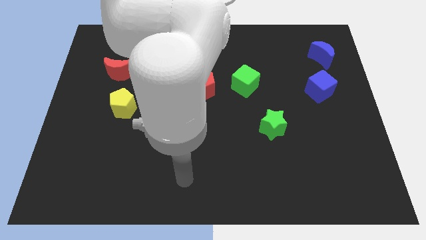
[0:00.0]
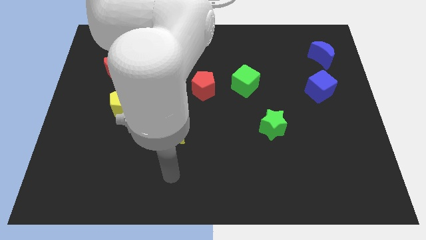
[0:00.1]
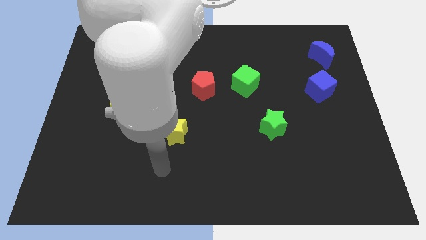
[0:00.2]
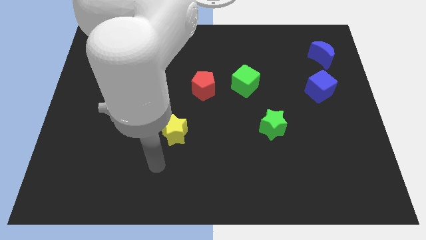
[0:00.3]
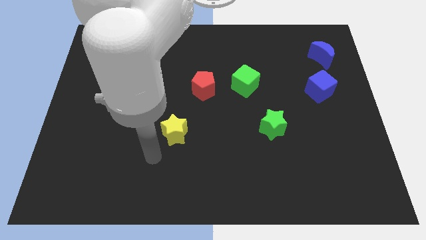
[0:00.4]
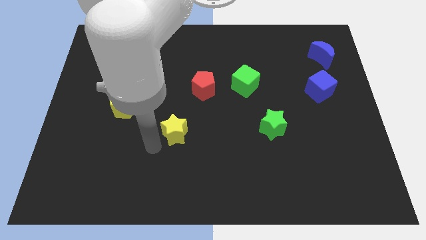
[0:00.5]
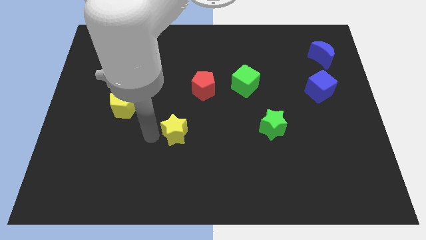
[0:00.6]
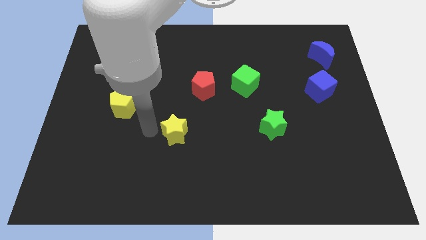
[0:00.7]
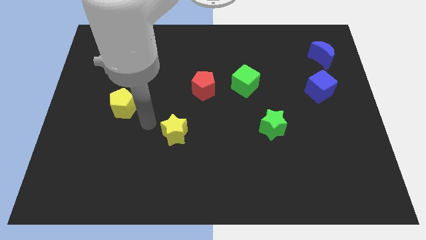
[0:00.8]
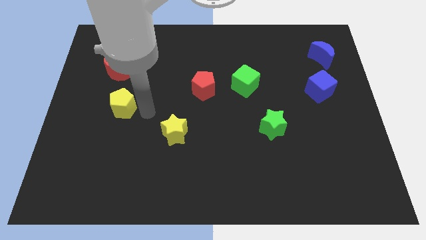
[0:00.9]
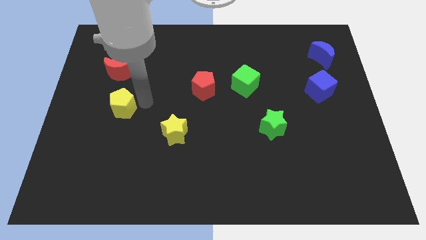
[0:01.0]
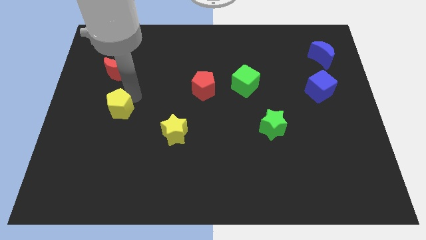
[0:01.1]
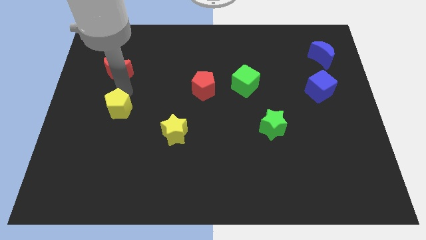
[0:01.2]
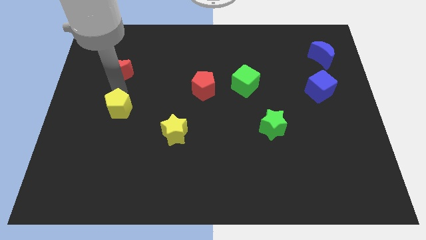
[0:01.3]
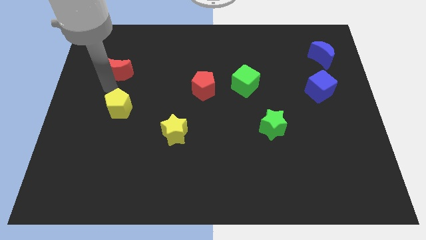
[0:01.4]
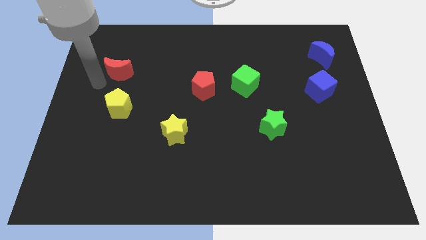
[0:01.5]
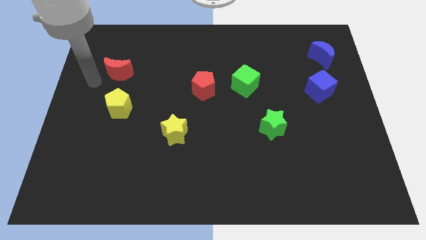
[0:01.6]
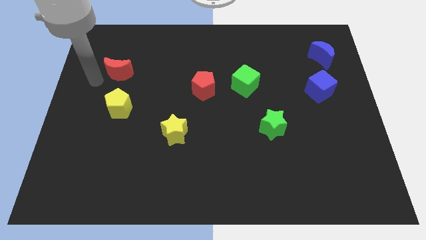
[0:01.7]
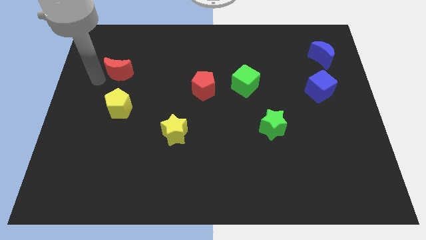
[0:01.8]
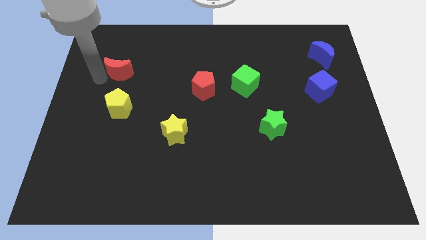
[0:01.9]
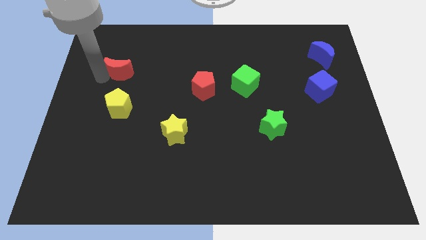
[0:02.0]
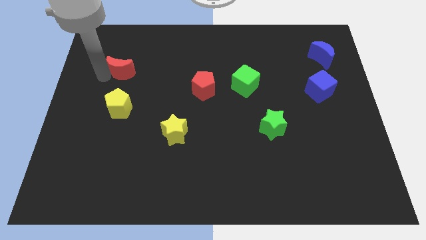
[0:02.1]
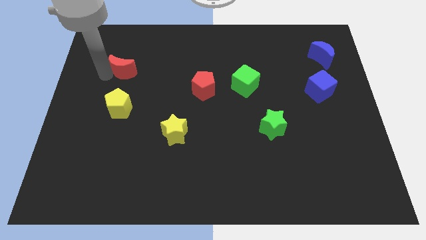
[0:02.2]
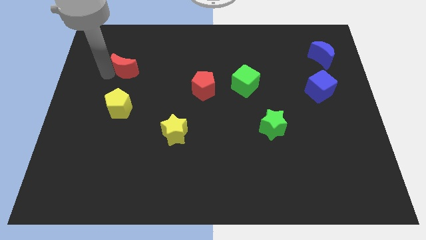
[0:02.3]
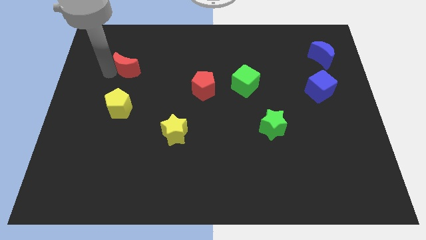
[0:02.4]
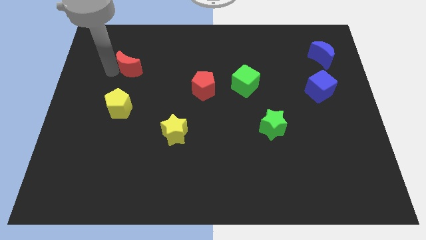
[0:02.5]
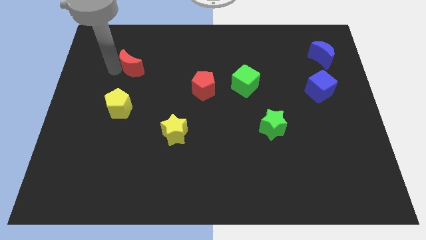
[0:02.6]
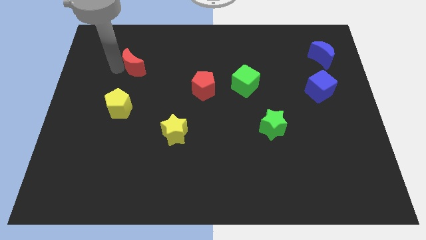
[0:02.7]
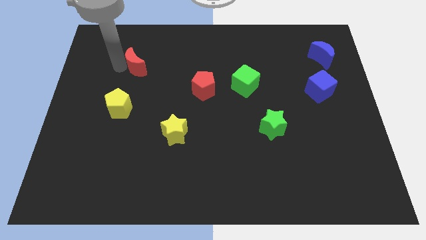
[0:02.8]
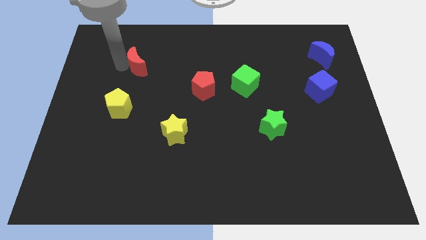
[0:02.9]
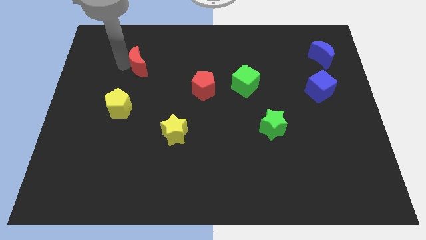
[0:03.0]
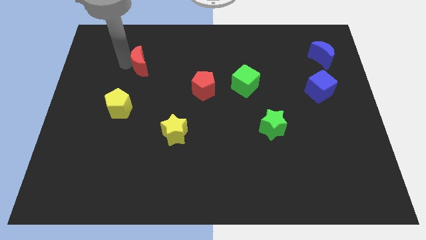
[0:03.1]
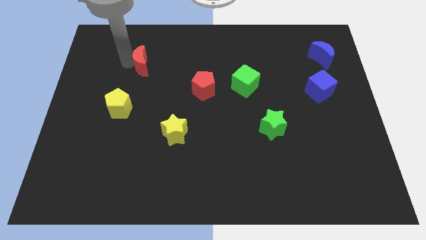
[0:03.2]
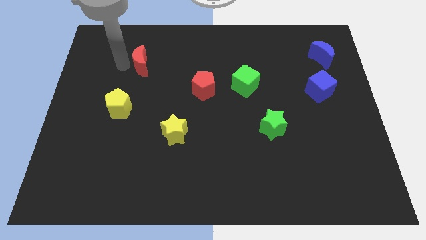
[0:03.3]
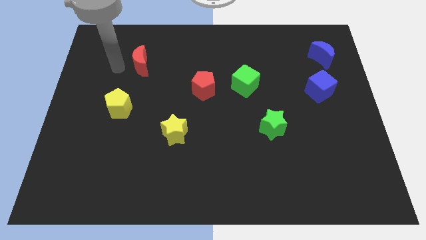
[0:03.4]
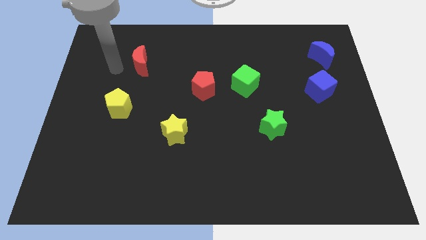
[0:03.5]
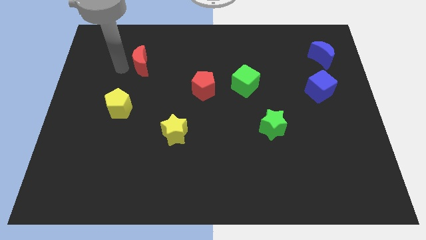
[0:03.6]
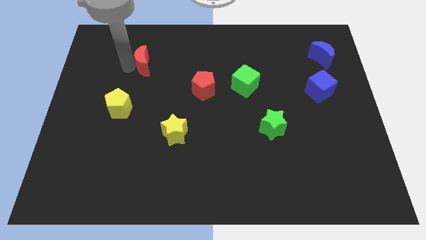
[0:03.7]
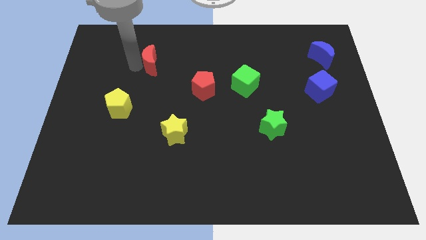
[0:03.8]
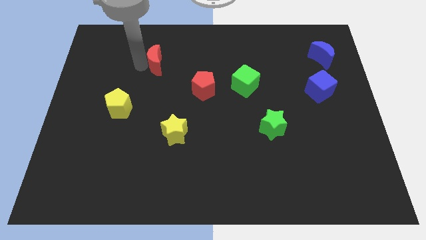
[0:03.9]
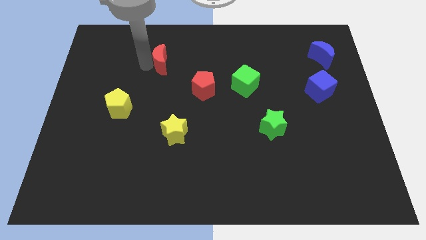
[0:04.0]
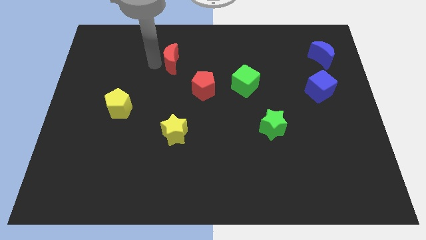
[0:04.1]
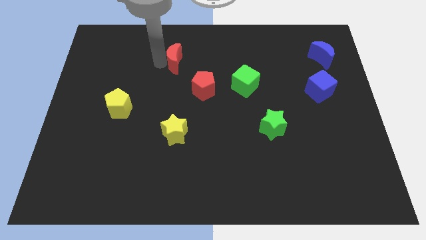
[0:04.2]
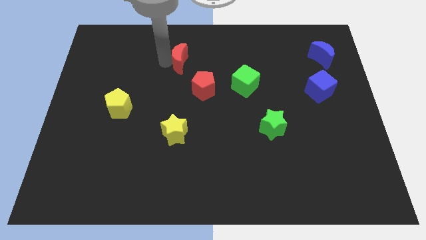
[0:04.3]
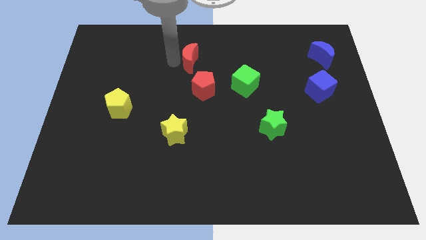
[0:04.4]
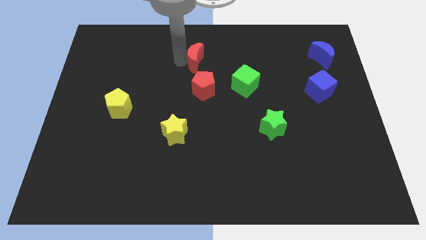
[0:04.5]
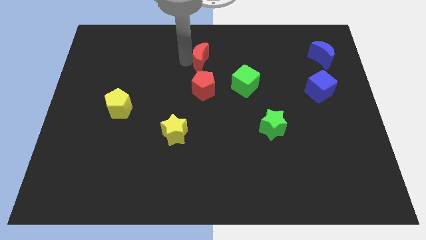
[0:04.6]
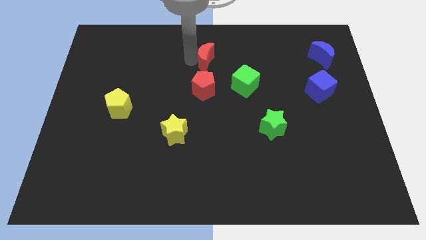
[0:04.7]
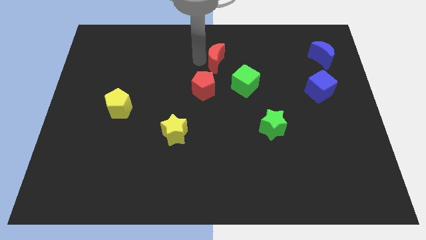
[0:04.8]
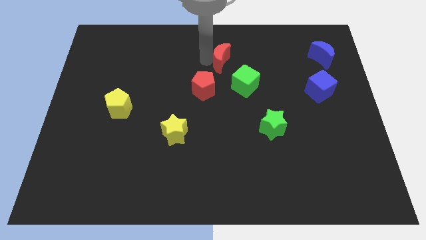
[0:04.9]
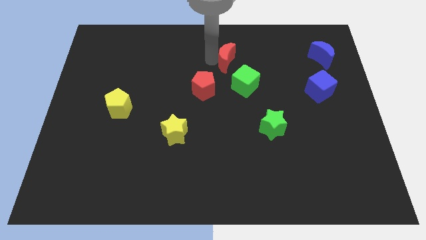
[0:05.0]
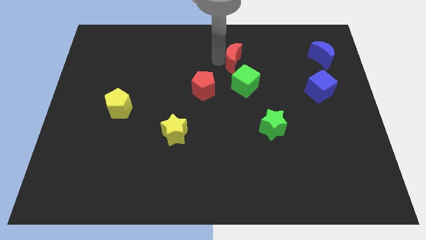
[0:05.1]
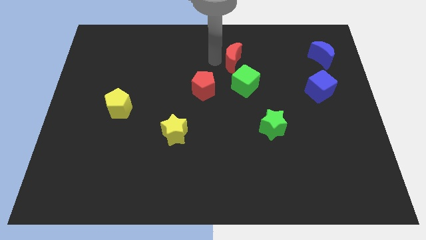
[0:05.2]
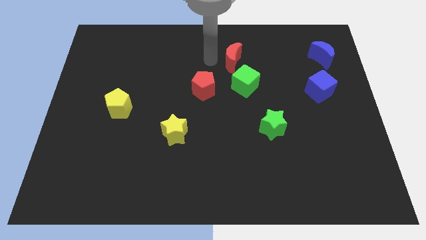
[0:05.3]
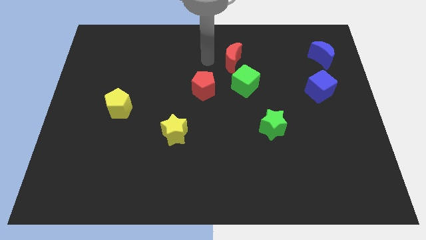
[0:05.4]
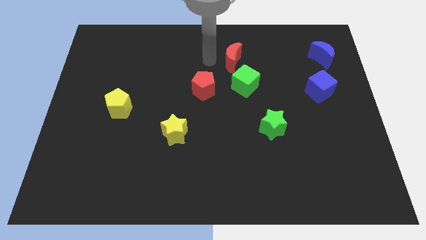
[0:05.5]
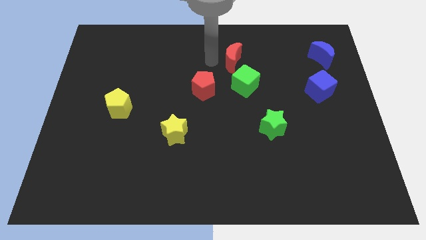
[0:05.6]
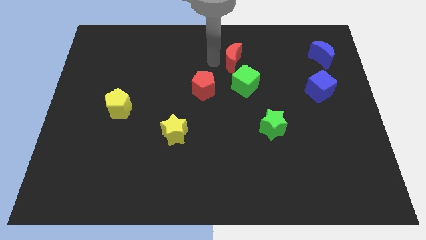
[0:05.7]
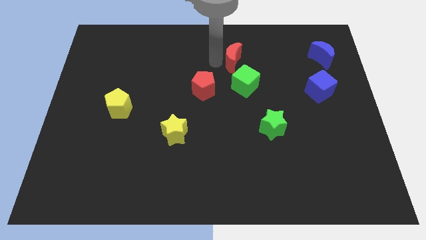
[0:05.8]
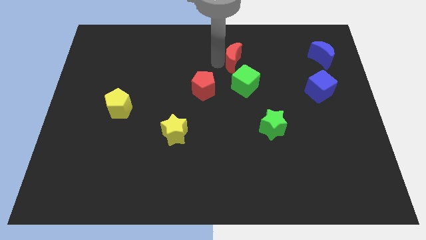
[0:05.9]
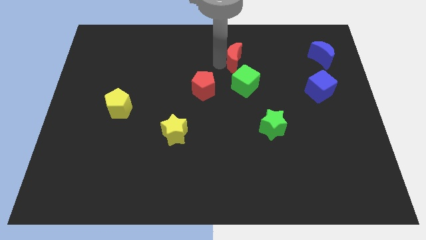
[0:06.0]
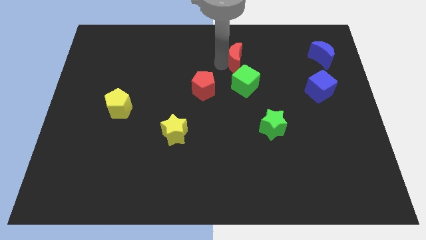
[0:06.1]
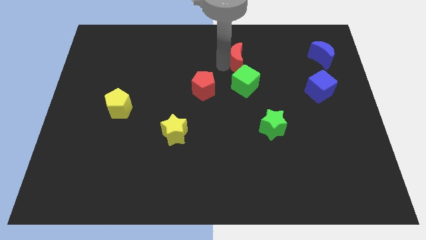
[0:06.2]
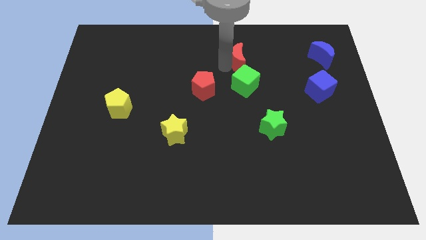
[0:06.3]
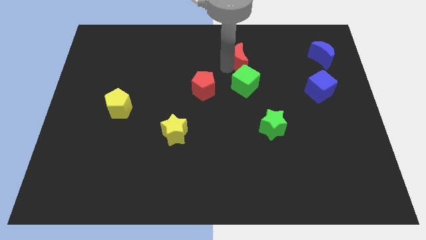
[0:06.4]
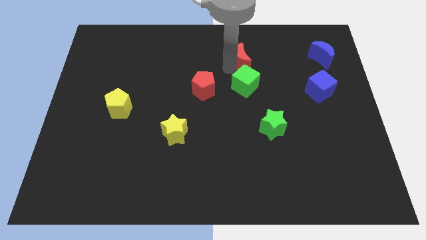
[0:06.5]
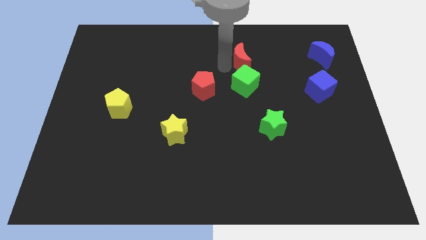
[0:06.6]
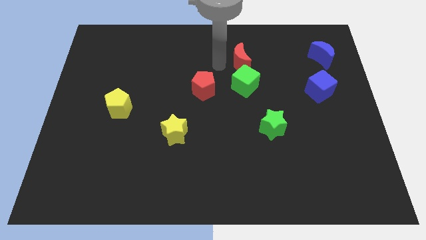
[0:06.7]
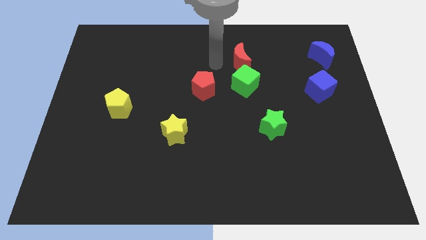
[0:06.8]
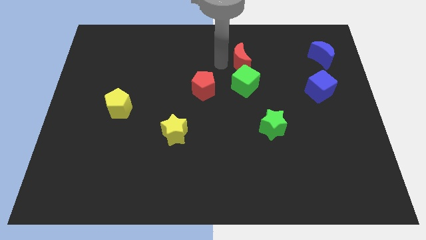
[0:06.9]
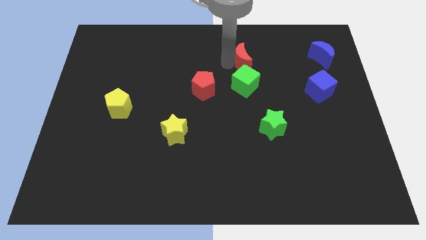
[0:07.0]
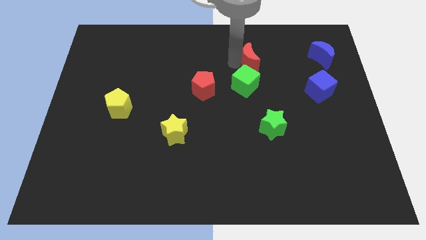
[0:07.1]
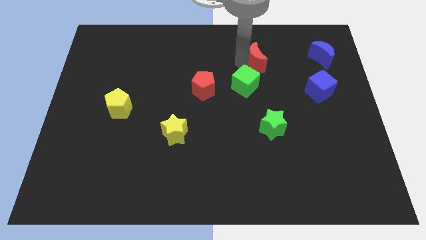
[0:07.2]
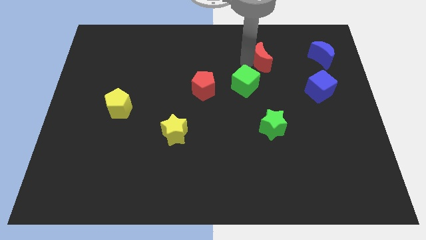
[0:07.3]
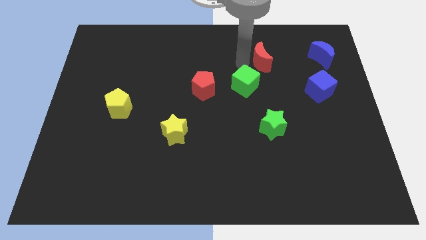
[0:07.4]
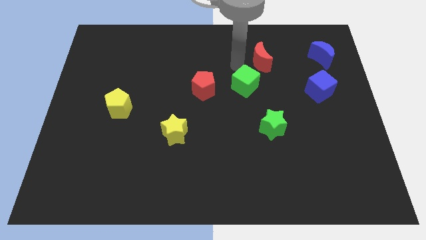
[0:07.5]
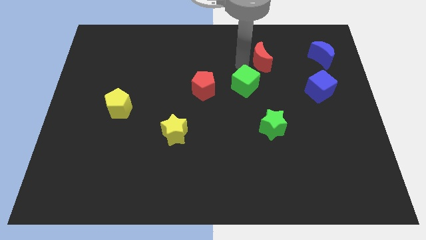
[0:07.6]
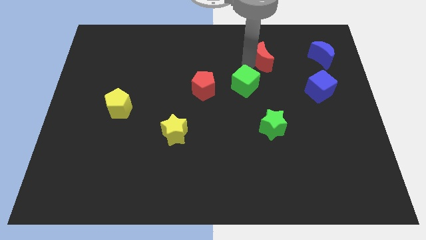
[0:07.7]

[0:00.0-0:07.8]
put the red moon just left of the blue moon
